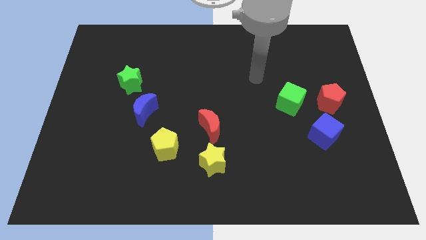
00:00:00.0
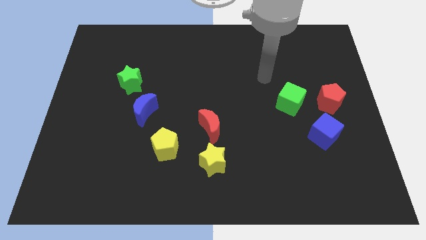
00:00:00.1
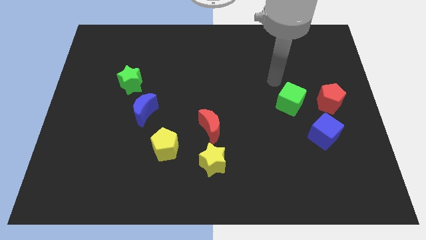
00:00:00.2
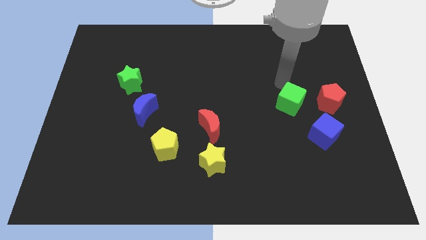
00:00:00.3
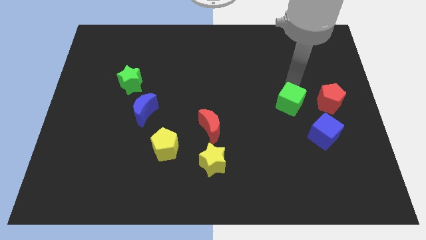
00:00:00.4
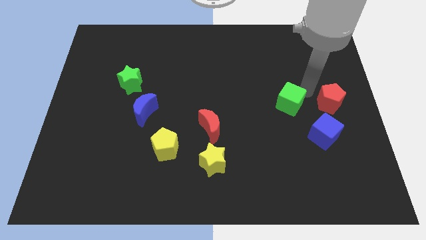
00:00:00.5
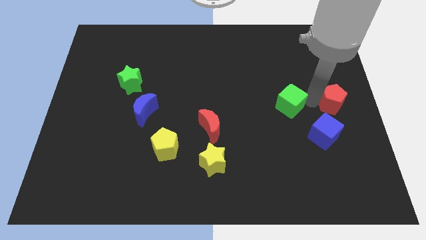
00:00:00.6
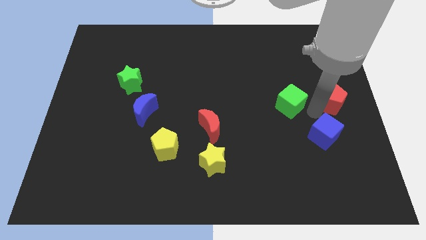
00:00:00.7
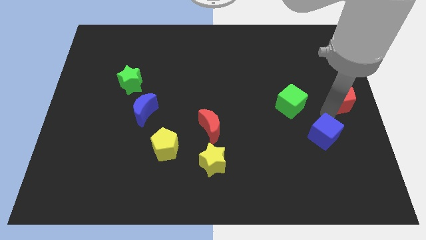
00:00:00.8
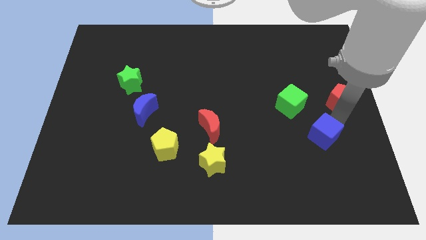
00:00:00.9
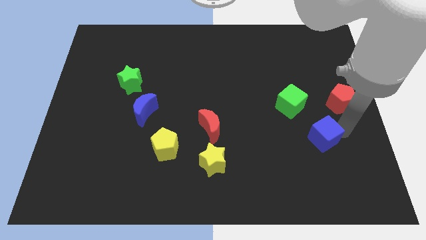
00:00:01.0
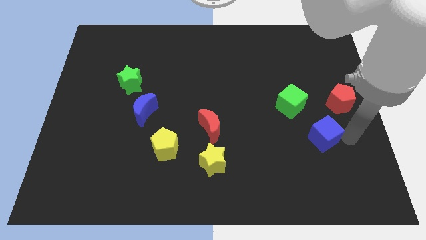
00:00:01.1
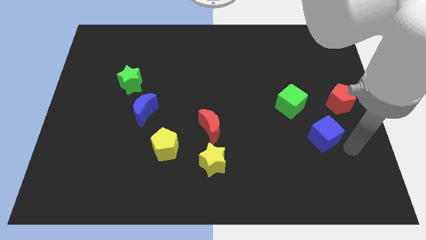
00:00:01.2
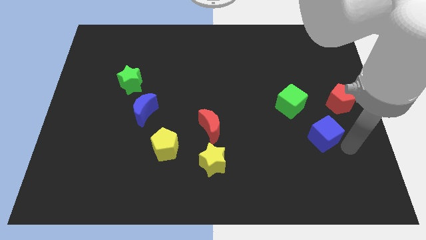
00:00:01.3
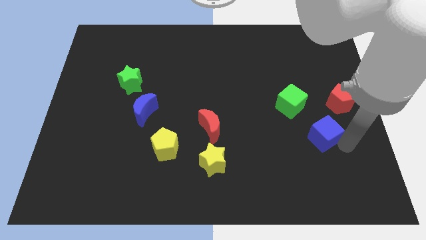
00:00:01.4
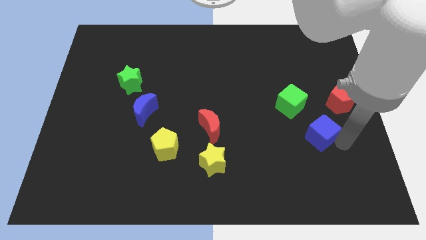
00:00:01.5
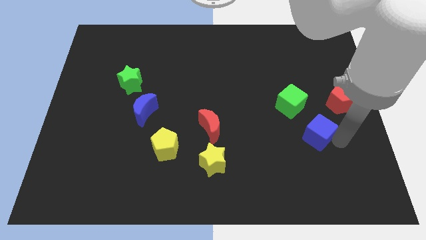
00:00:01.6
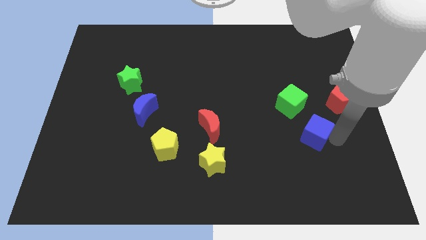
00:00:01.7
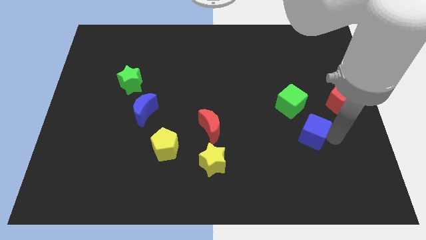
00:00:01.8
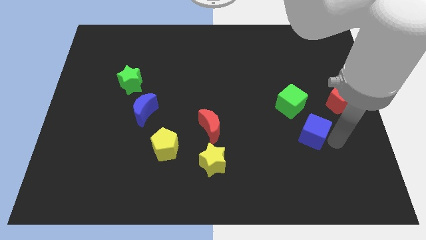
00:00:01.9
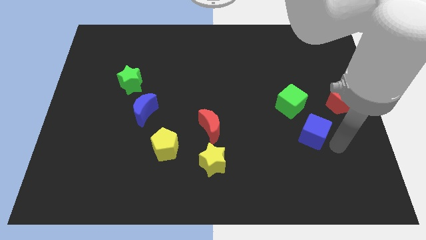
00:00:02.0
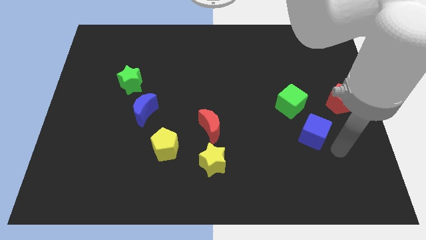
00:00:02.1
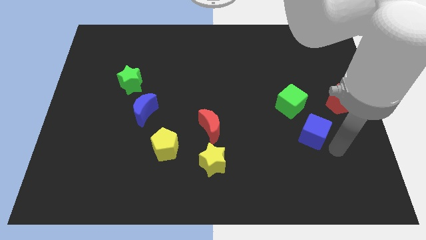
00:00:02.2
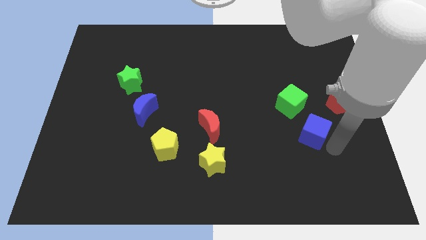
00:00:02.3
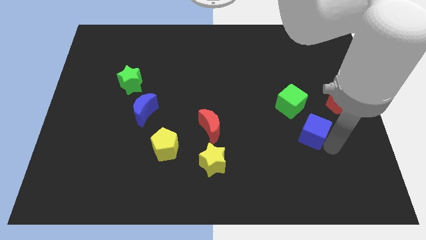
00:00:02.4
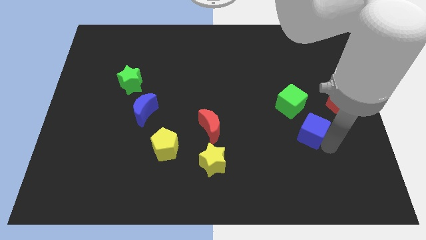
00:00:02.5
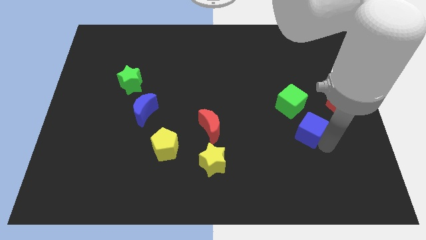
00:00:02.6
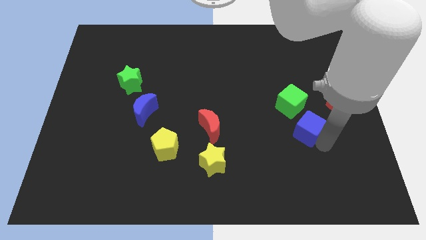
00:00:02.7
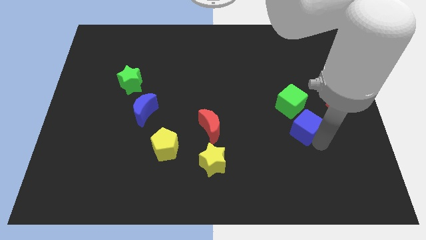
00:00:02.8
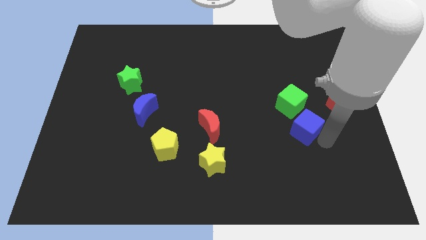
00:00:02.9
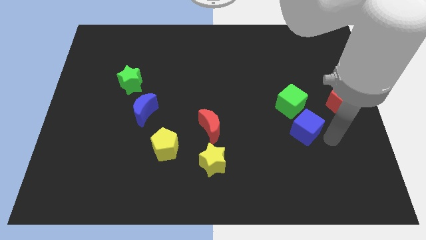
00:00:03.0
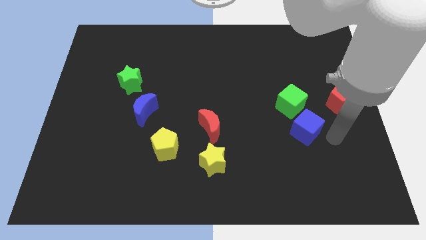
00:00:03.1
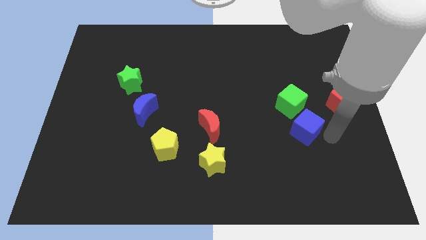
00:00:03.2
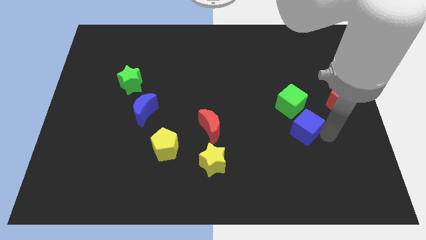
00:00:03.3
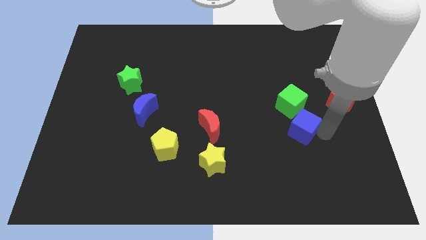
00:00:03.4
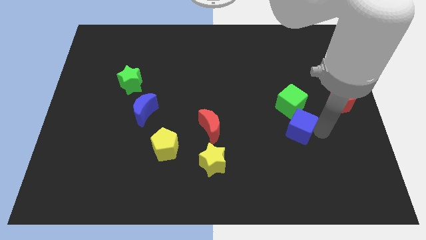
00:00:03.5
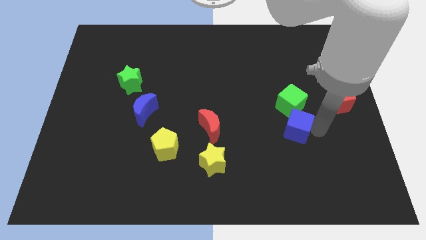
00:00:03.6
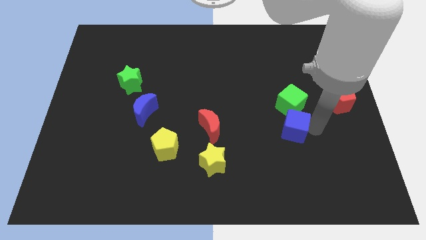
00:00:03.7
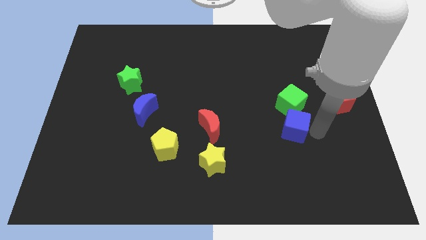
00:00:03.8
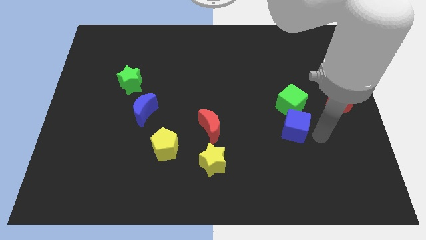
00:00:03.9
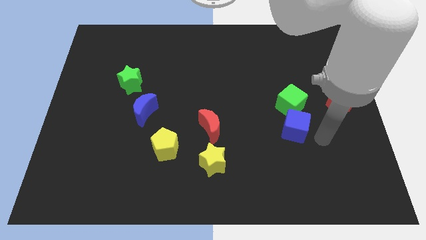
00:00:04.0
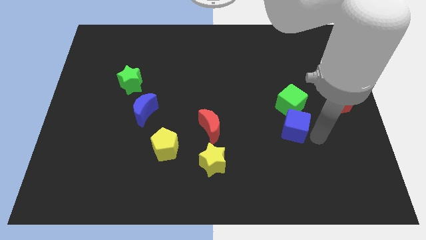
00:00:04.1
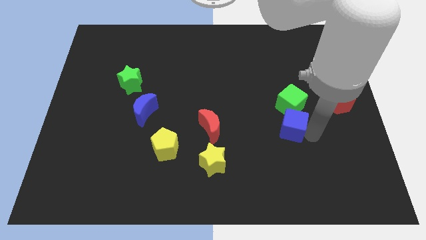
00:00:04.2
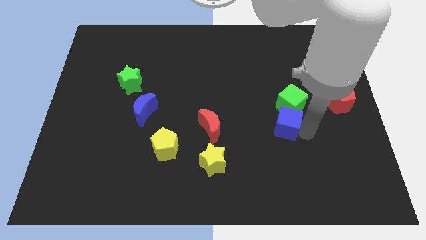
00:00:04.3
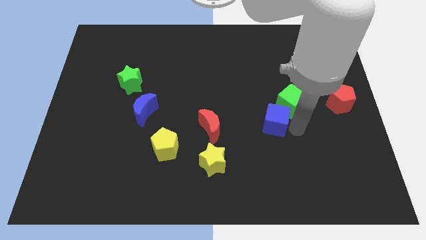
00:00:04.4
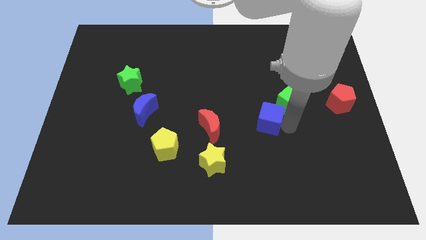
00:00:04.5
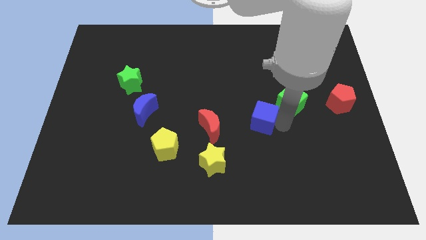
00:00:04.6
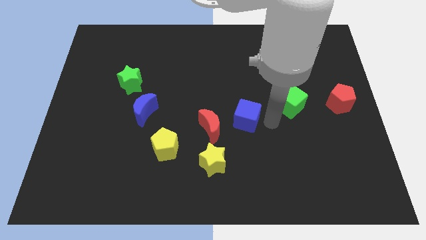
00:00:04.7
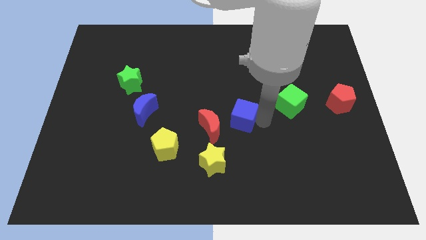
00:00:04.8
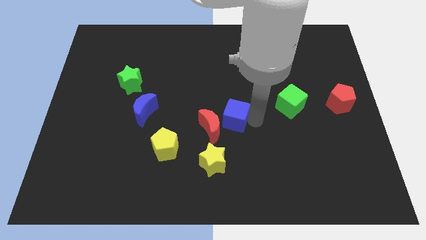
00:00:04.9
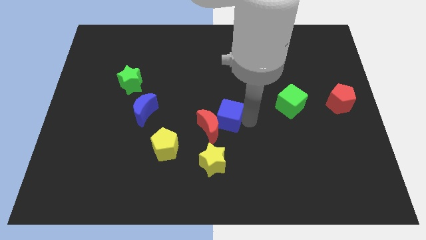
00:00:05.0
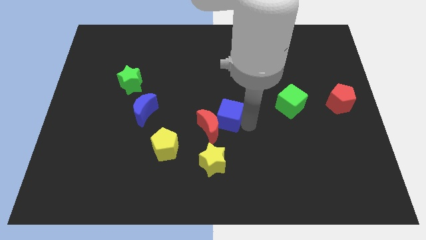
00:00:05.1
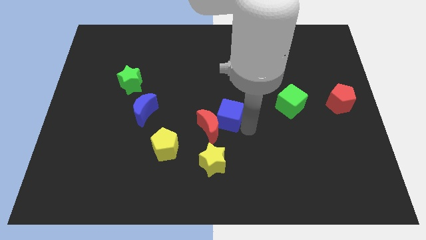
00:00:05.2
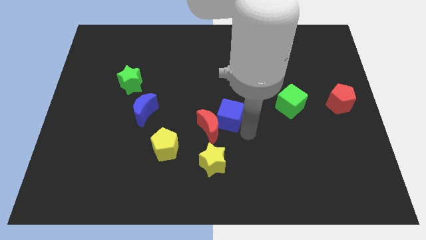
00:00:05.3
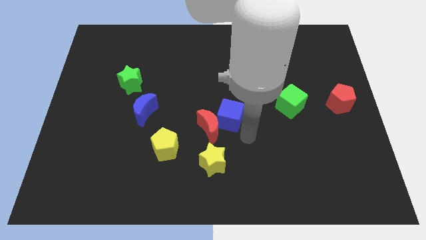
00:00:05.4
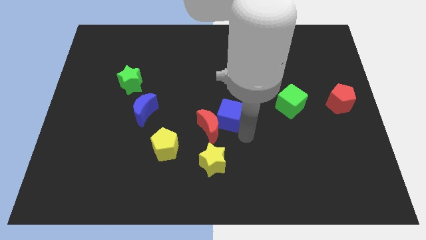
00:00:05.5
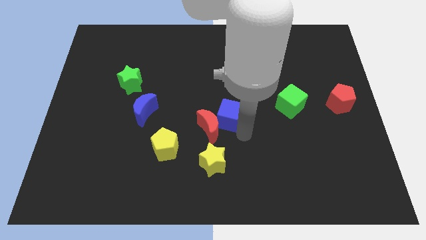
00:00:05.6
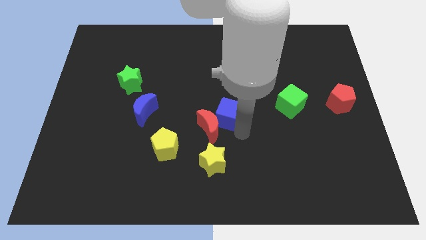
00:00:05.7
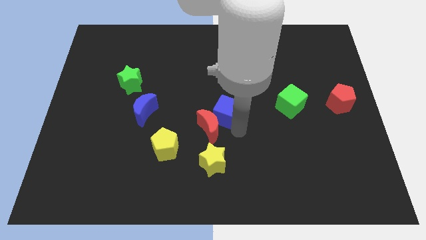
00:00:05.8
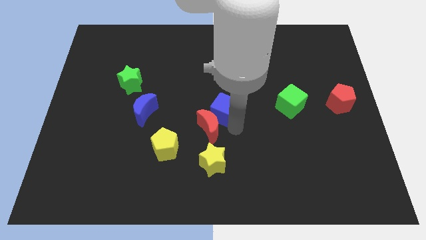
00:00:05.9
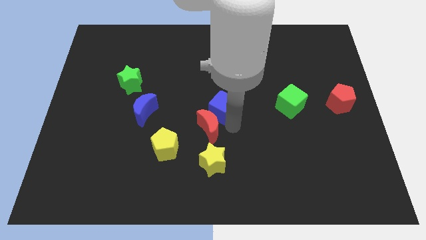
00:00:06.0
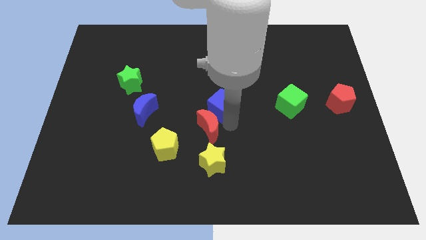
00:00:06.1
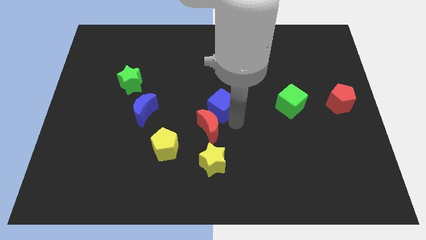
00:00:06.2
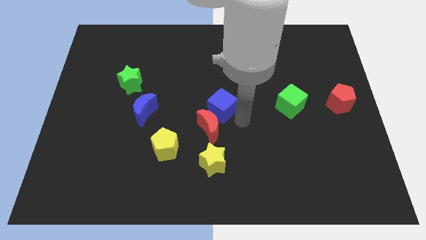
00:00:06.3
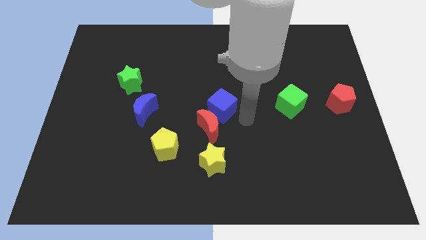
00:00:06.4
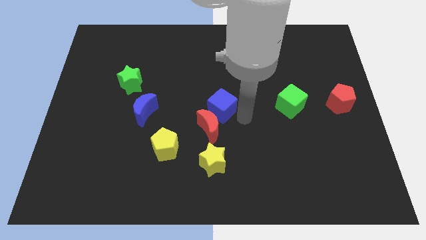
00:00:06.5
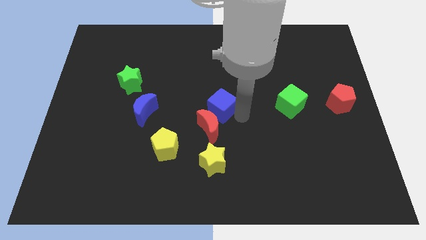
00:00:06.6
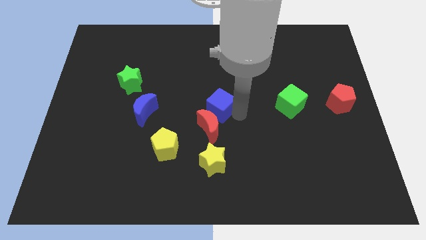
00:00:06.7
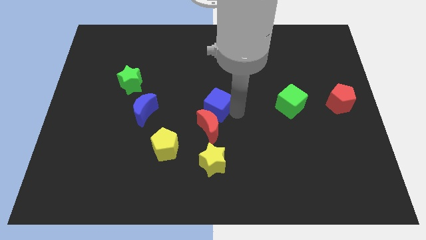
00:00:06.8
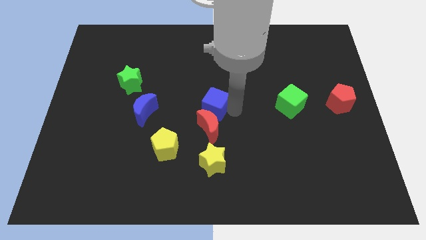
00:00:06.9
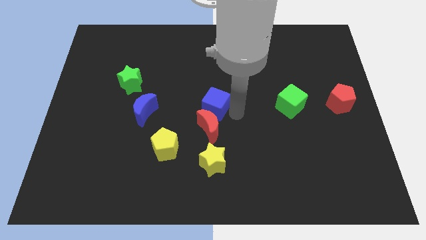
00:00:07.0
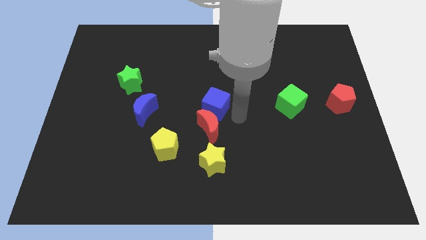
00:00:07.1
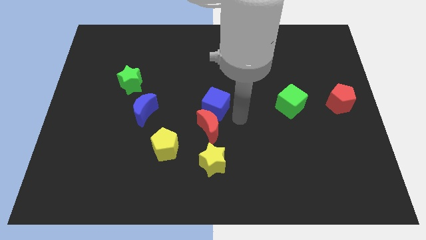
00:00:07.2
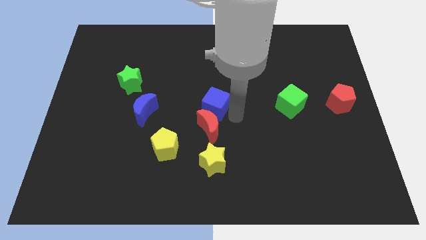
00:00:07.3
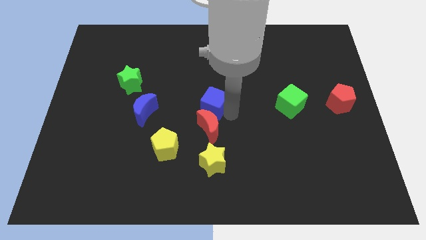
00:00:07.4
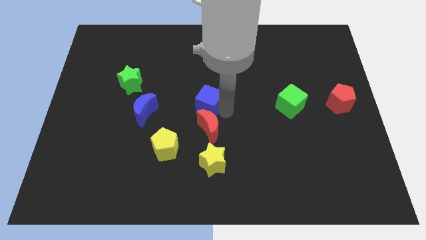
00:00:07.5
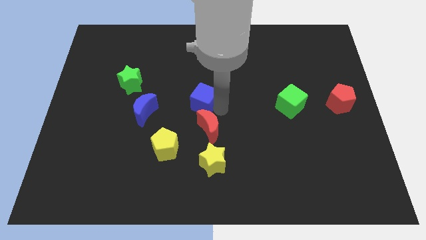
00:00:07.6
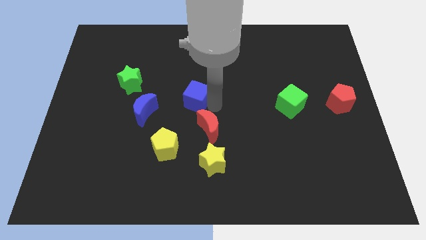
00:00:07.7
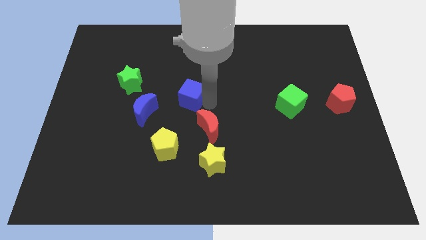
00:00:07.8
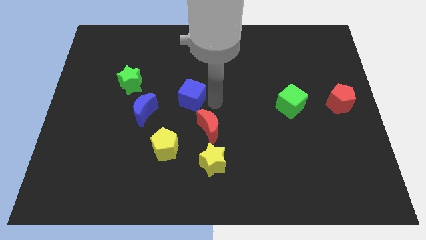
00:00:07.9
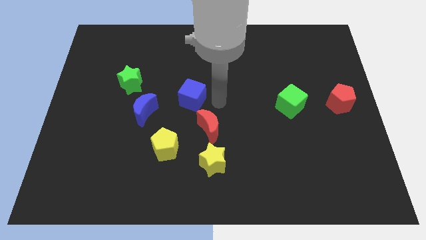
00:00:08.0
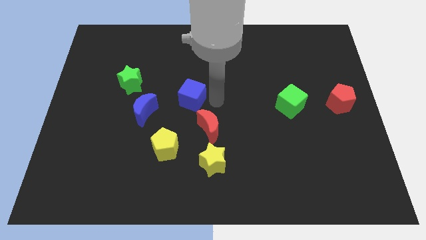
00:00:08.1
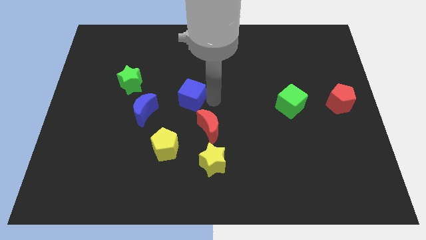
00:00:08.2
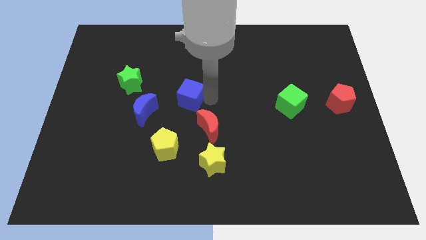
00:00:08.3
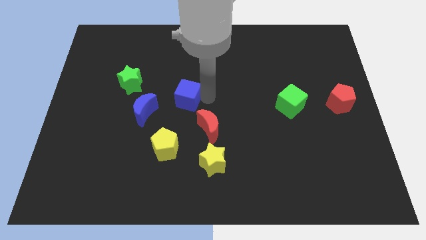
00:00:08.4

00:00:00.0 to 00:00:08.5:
slide the blue cube to the top right of the blue moon
